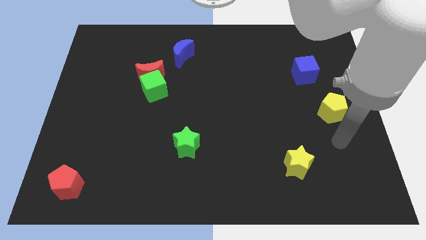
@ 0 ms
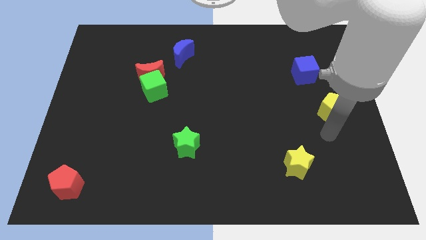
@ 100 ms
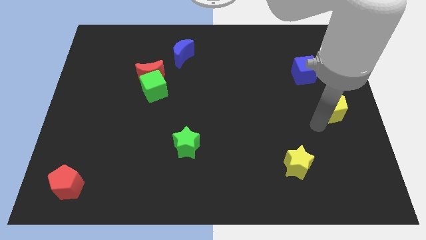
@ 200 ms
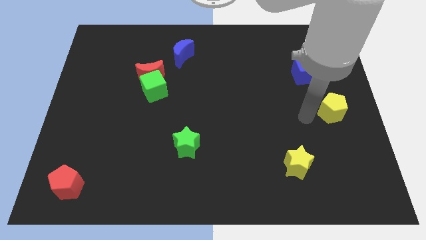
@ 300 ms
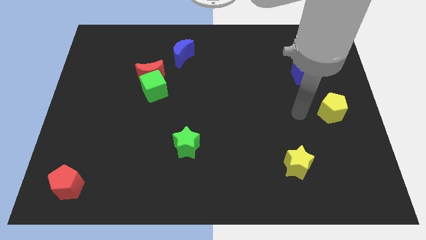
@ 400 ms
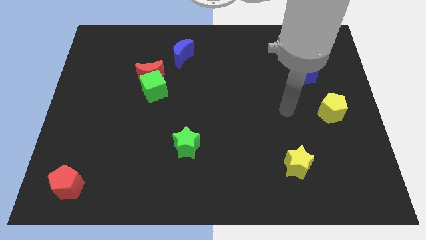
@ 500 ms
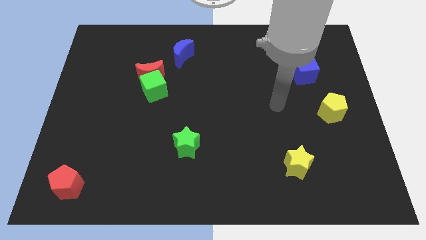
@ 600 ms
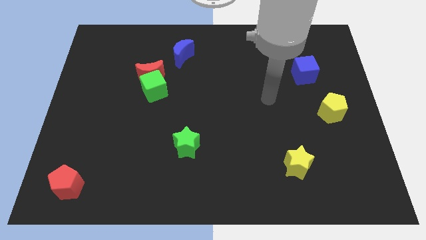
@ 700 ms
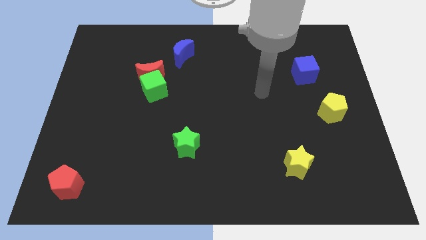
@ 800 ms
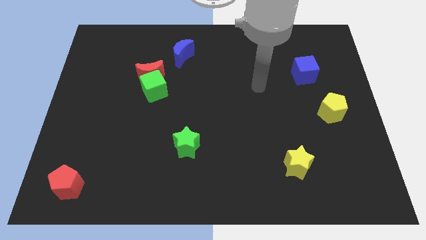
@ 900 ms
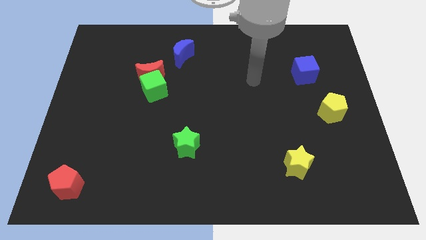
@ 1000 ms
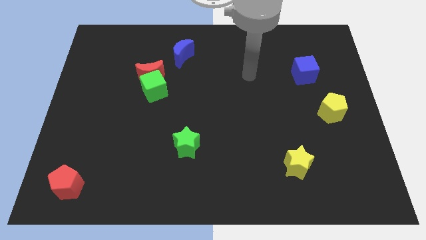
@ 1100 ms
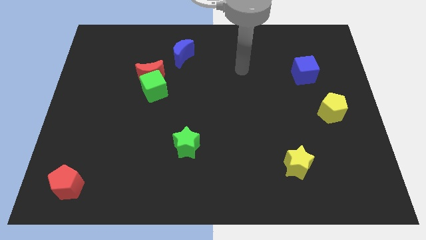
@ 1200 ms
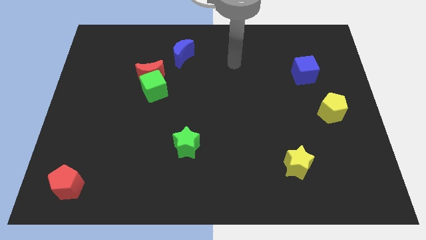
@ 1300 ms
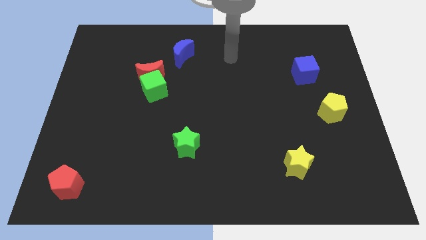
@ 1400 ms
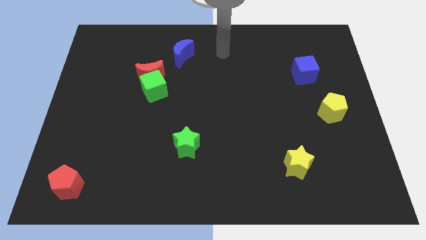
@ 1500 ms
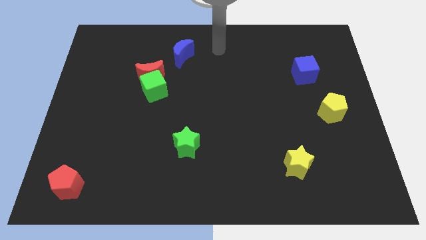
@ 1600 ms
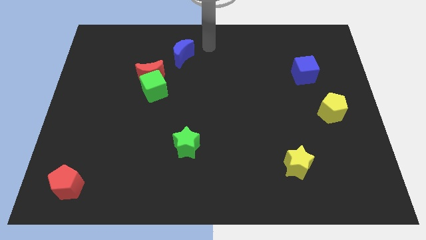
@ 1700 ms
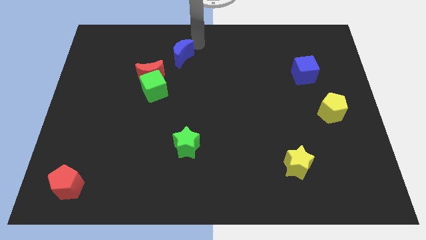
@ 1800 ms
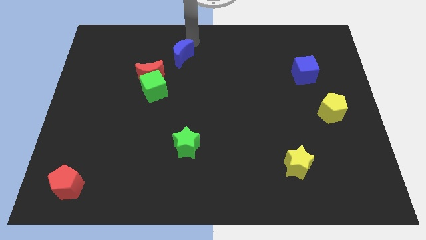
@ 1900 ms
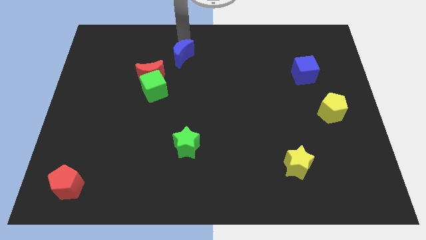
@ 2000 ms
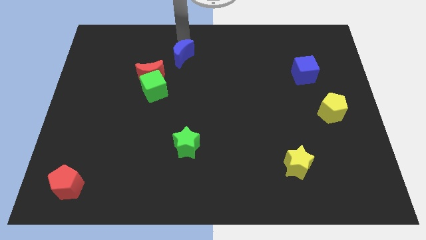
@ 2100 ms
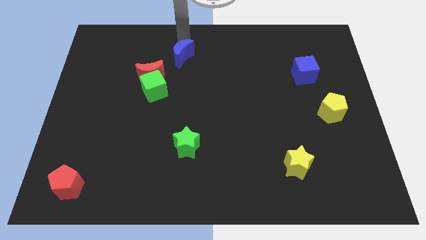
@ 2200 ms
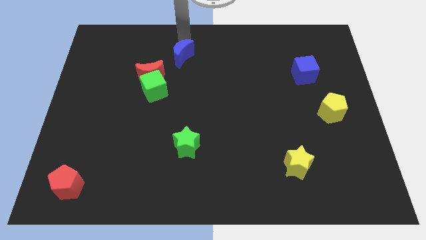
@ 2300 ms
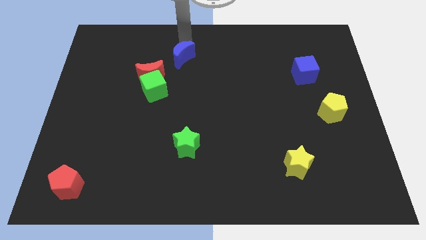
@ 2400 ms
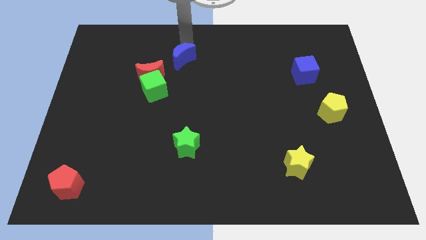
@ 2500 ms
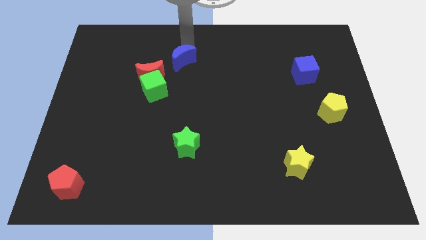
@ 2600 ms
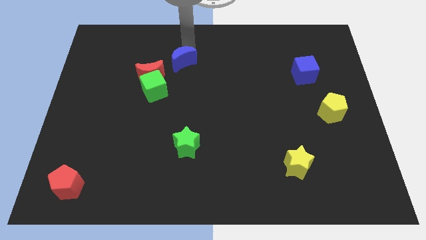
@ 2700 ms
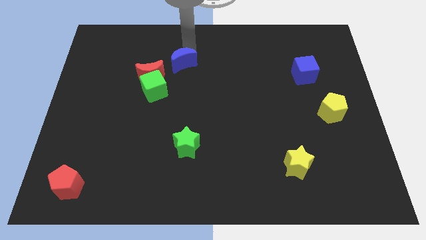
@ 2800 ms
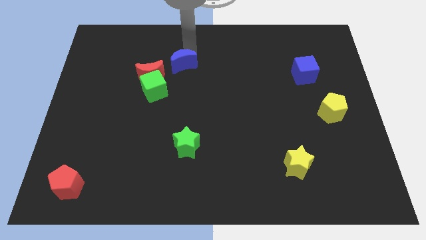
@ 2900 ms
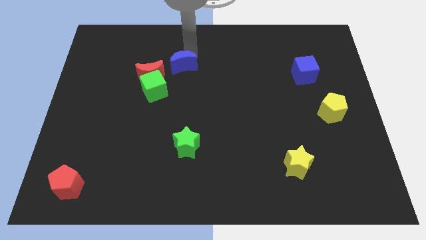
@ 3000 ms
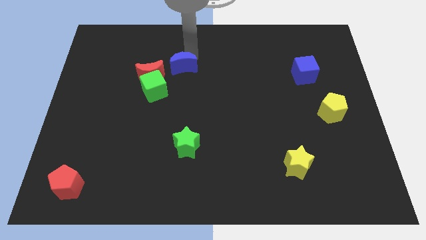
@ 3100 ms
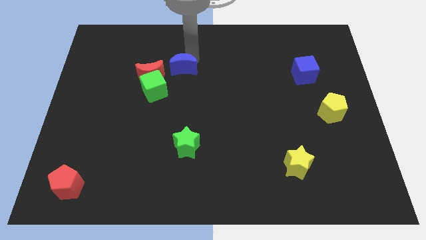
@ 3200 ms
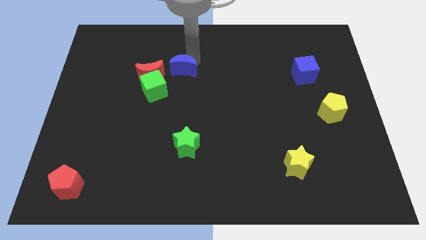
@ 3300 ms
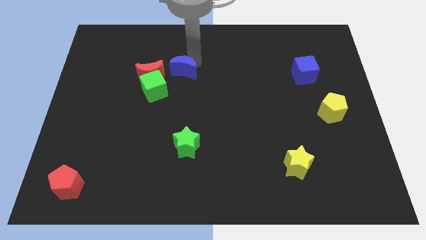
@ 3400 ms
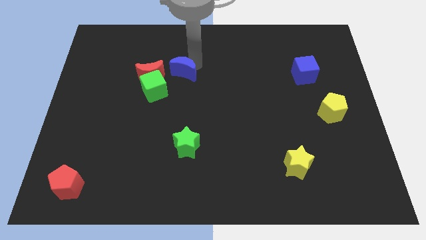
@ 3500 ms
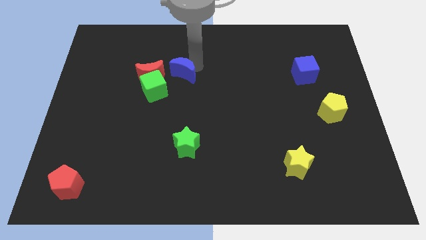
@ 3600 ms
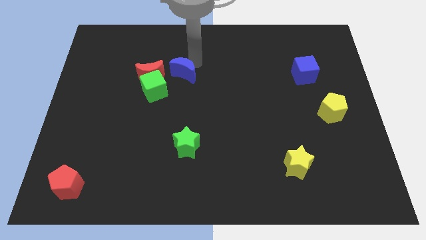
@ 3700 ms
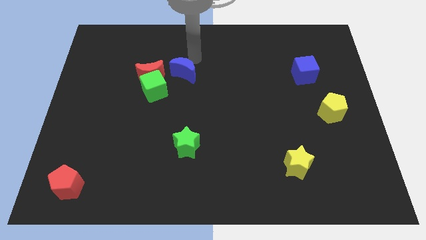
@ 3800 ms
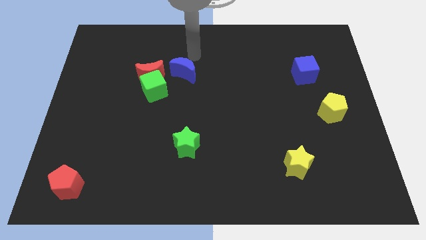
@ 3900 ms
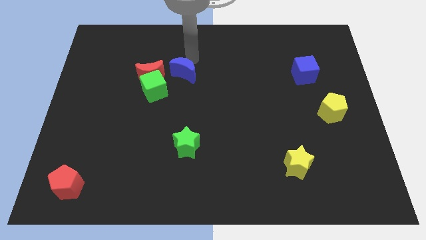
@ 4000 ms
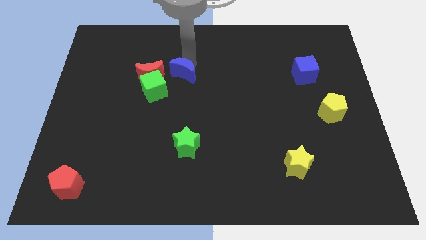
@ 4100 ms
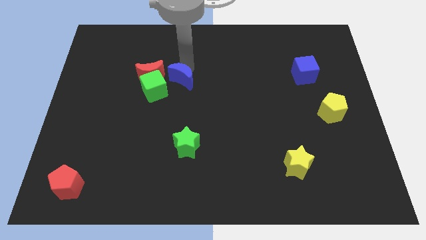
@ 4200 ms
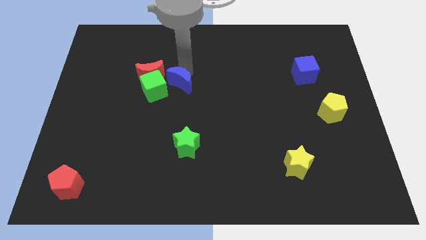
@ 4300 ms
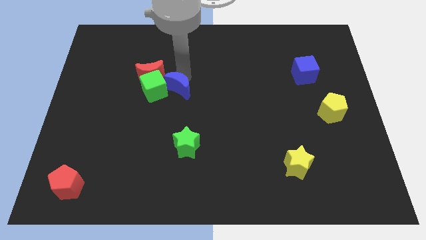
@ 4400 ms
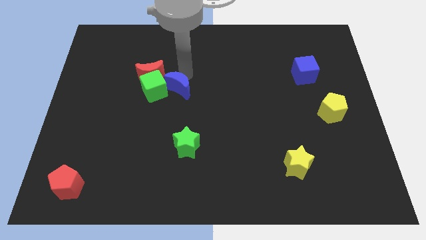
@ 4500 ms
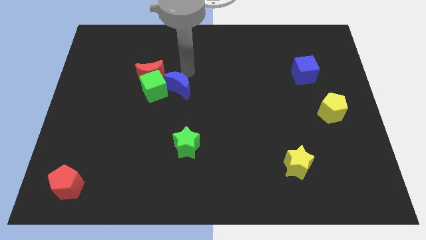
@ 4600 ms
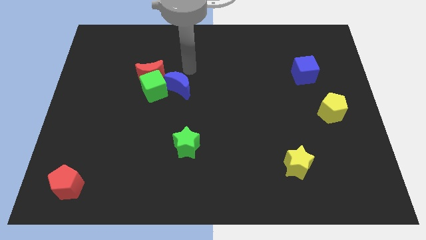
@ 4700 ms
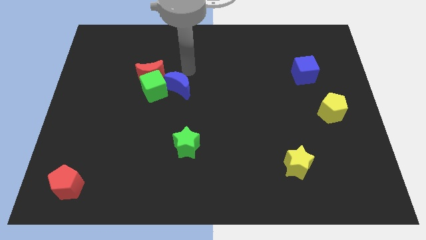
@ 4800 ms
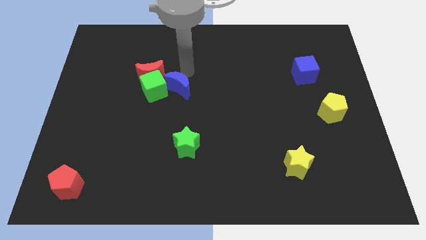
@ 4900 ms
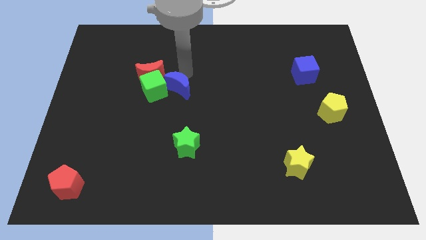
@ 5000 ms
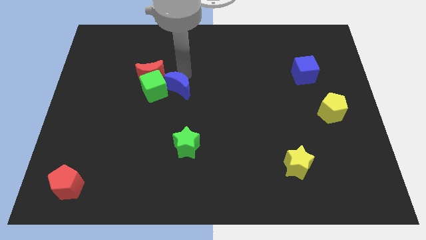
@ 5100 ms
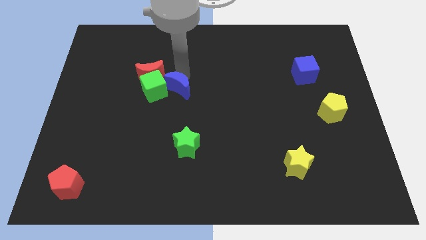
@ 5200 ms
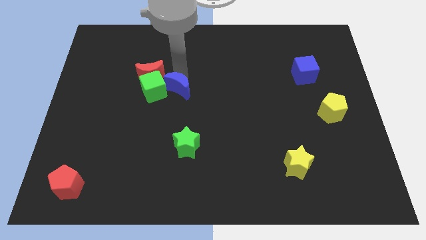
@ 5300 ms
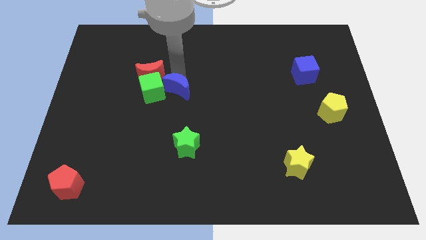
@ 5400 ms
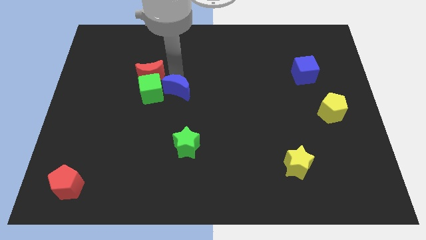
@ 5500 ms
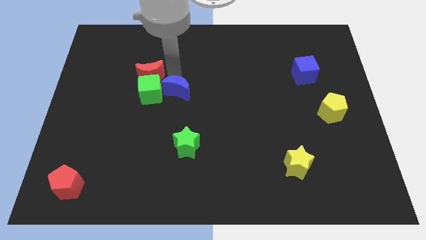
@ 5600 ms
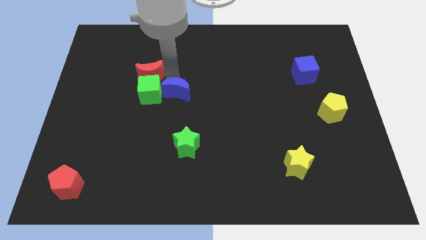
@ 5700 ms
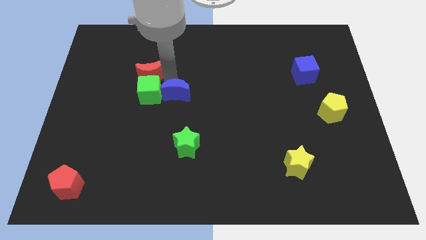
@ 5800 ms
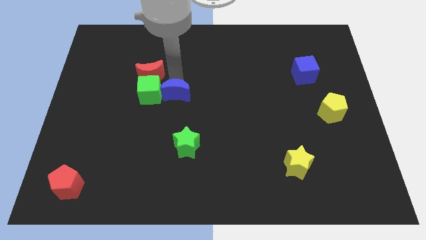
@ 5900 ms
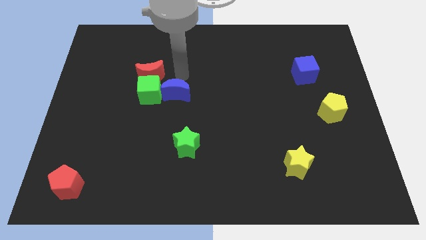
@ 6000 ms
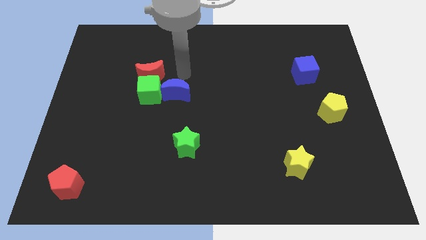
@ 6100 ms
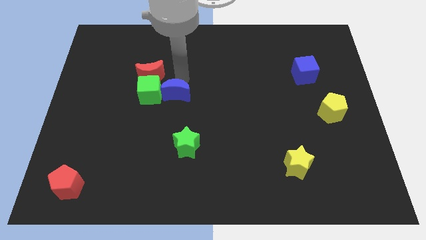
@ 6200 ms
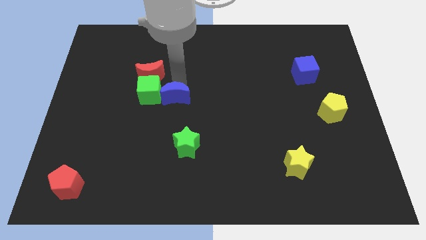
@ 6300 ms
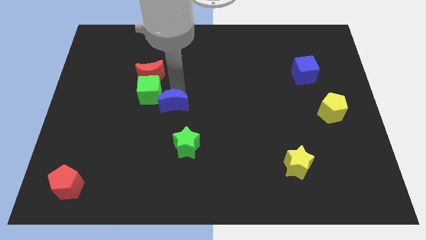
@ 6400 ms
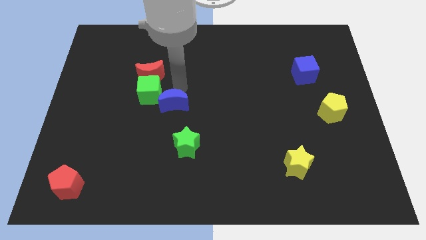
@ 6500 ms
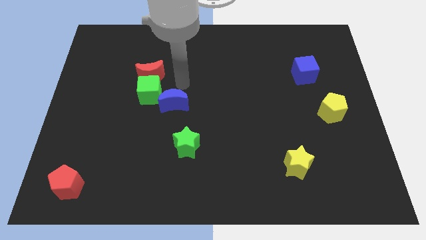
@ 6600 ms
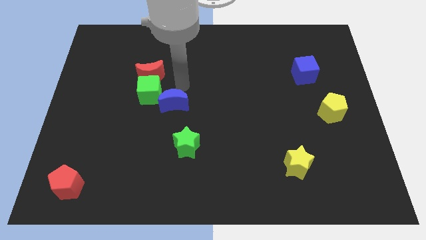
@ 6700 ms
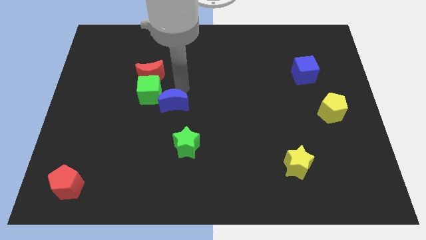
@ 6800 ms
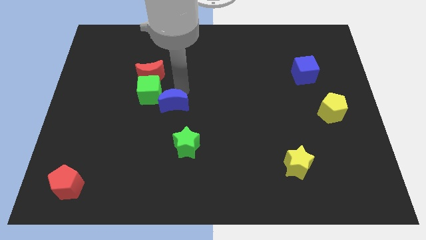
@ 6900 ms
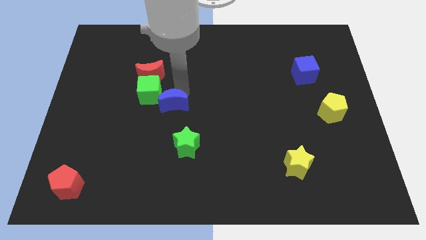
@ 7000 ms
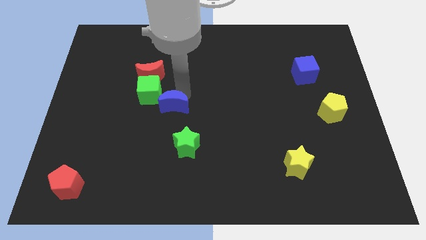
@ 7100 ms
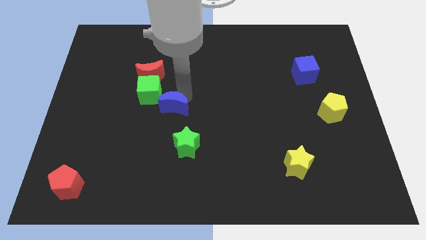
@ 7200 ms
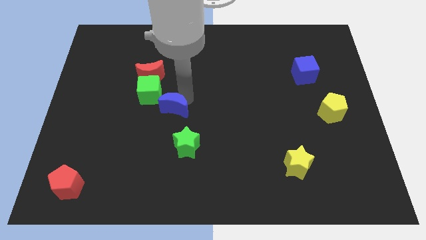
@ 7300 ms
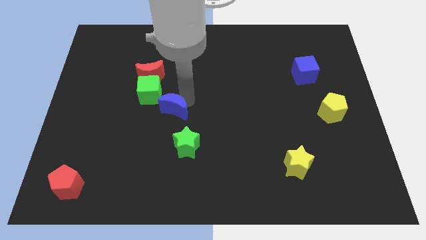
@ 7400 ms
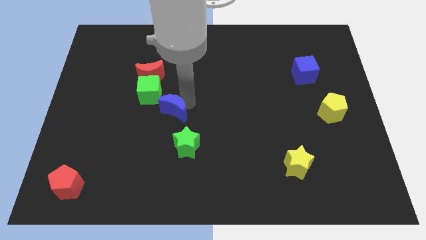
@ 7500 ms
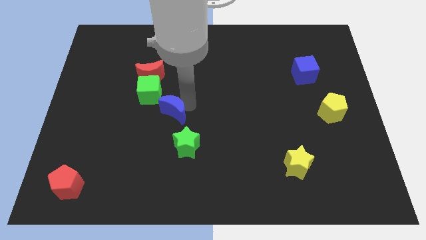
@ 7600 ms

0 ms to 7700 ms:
put the blue moon diagonally up and to the left of the green star
